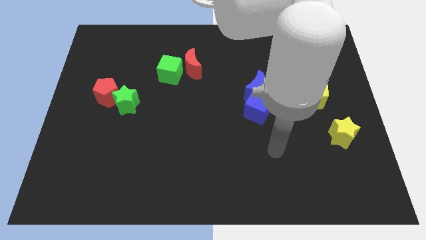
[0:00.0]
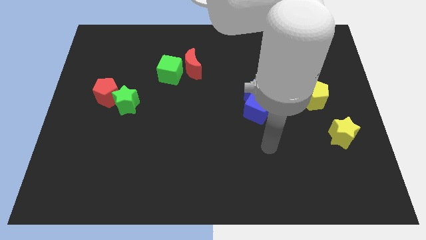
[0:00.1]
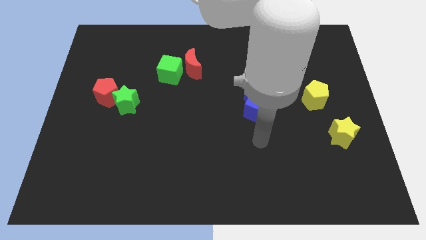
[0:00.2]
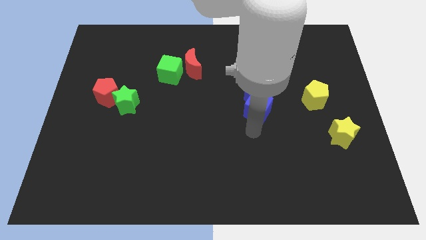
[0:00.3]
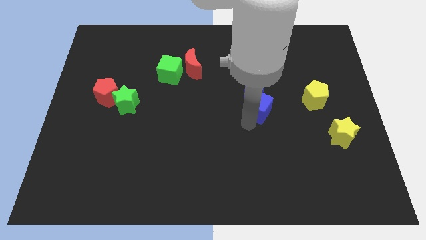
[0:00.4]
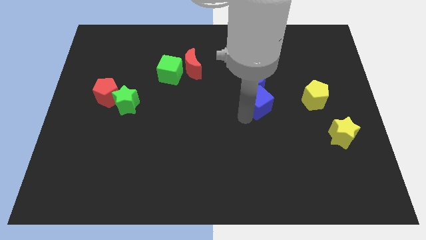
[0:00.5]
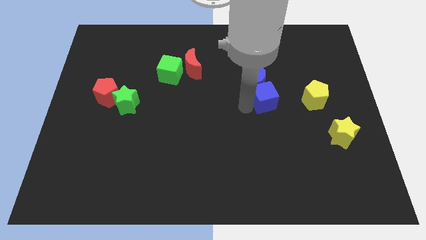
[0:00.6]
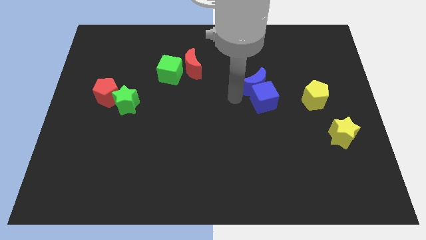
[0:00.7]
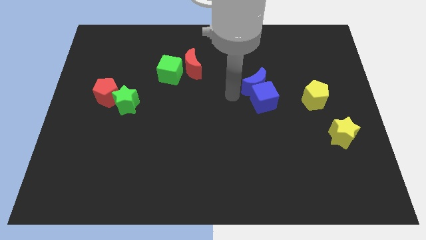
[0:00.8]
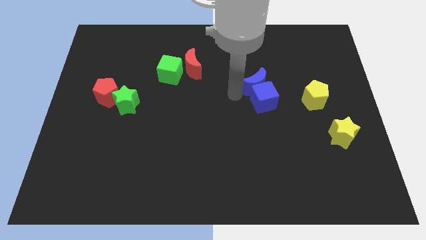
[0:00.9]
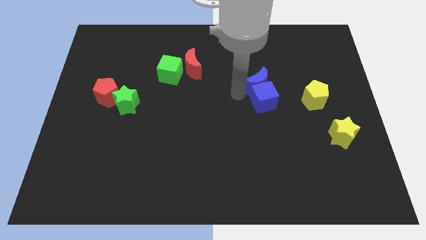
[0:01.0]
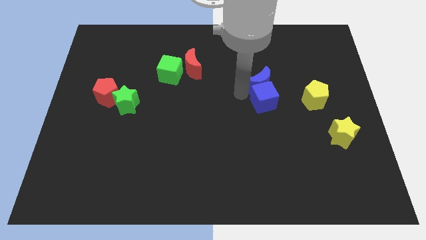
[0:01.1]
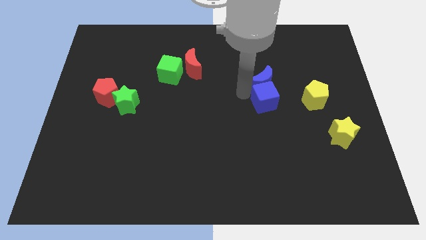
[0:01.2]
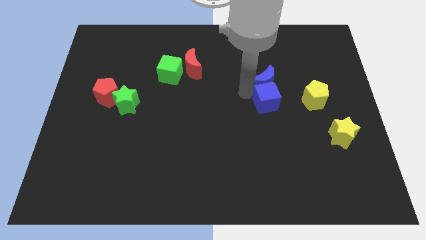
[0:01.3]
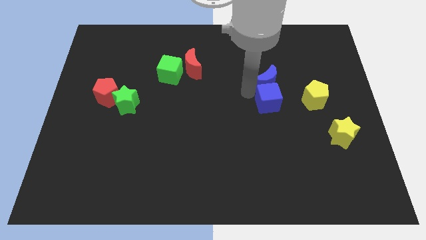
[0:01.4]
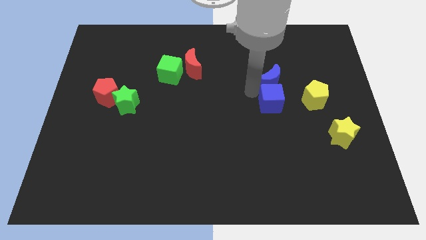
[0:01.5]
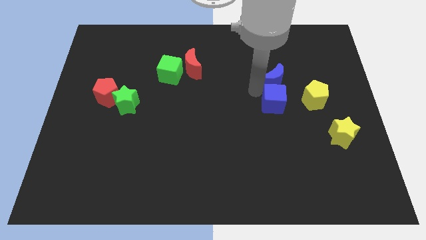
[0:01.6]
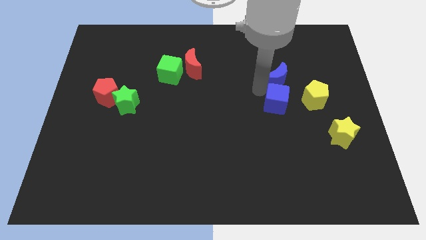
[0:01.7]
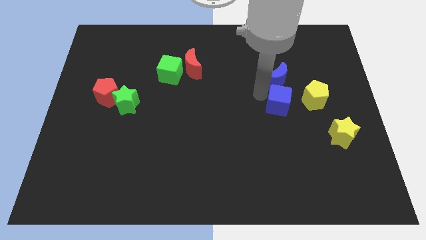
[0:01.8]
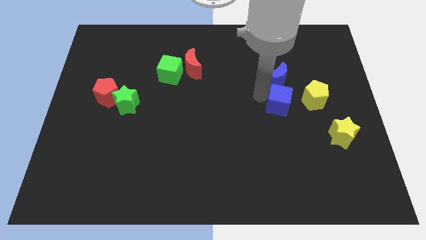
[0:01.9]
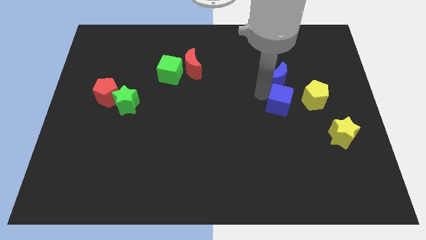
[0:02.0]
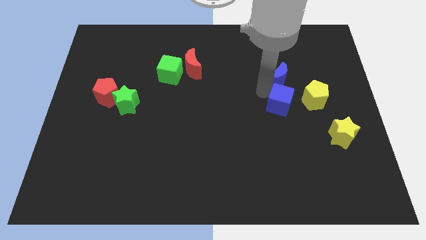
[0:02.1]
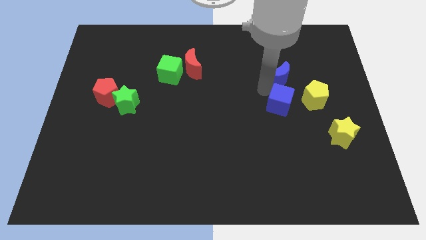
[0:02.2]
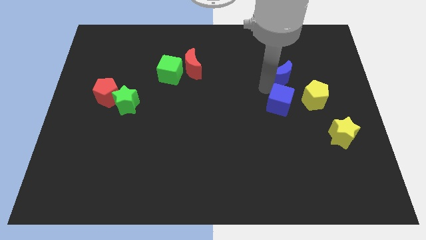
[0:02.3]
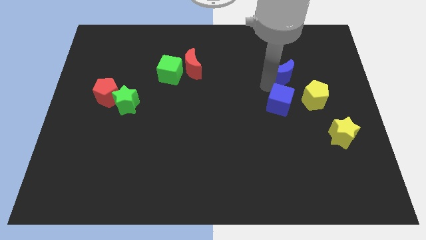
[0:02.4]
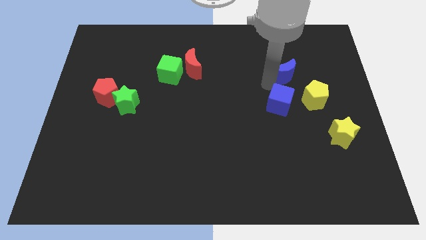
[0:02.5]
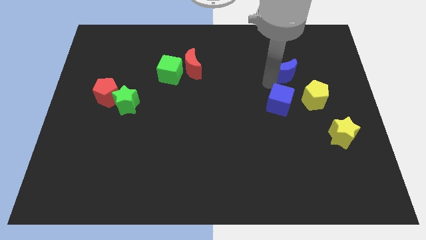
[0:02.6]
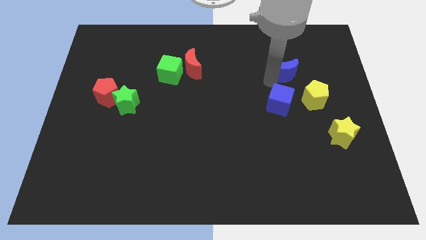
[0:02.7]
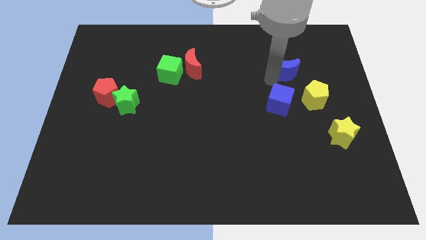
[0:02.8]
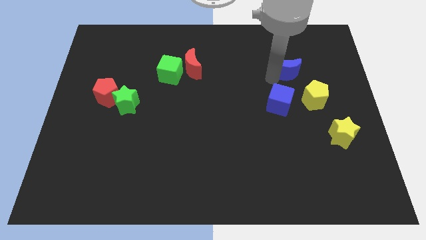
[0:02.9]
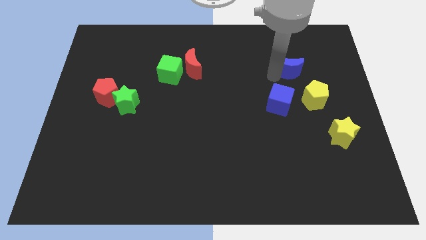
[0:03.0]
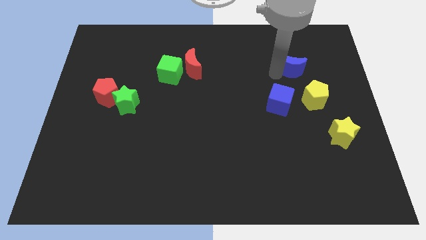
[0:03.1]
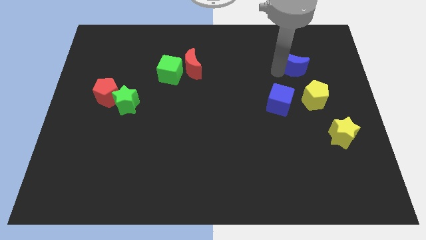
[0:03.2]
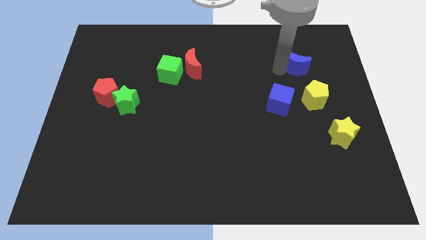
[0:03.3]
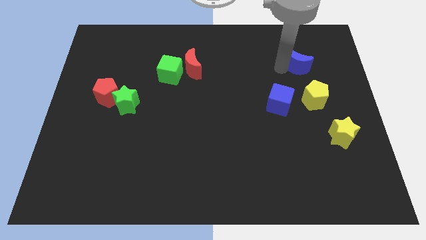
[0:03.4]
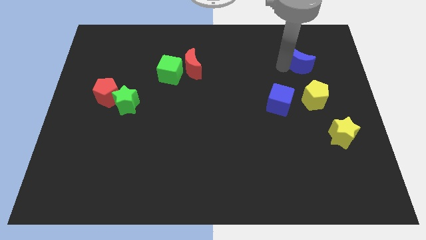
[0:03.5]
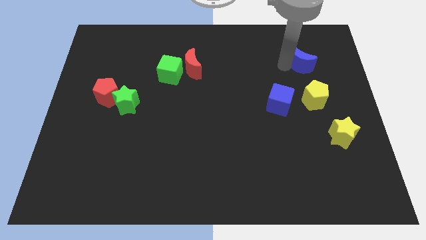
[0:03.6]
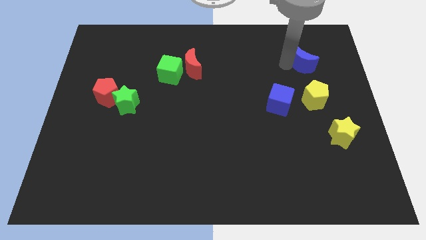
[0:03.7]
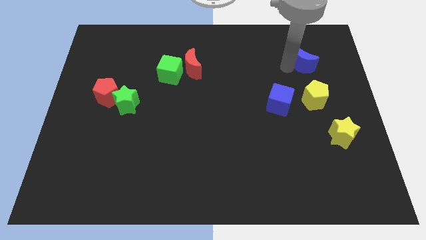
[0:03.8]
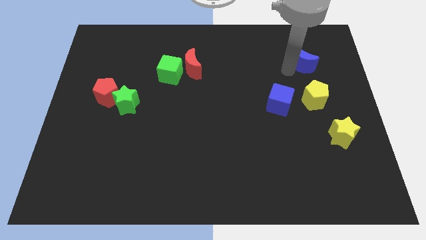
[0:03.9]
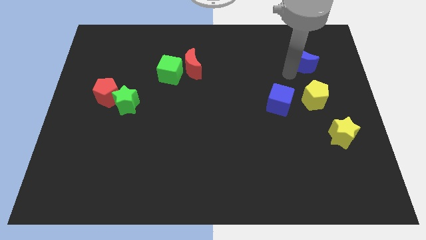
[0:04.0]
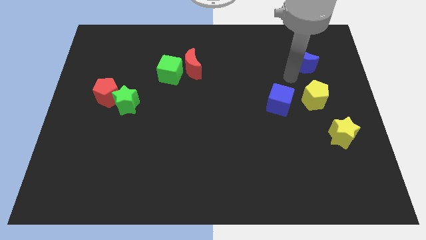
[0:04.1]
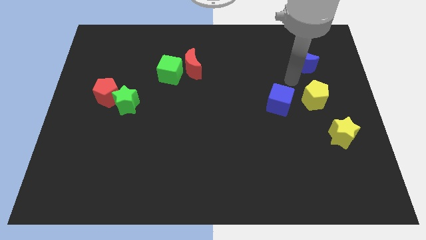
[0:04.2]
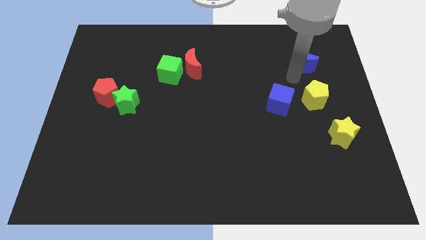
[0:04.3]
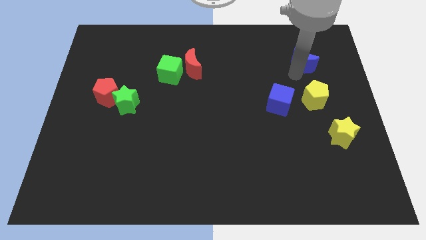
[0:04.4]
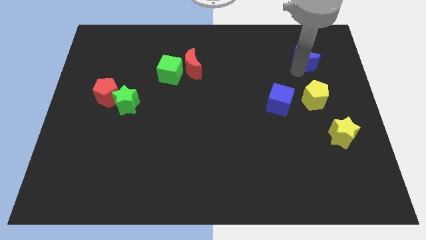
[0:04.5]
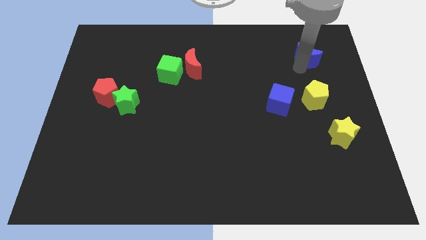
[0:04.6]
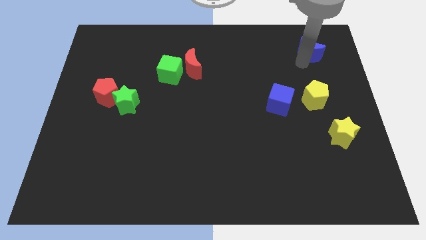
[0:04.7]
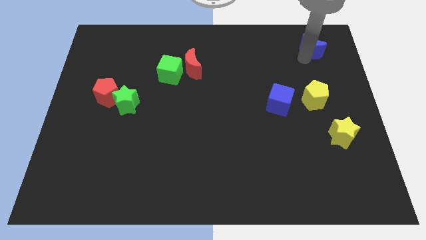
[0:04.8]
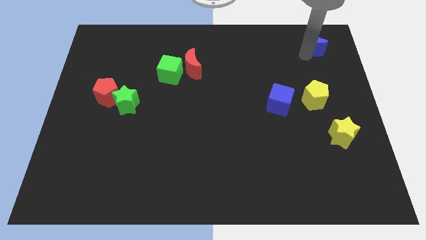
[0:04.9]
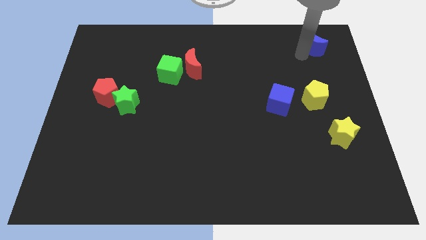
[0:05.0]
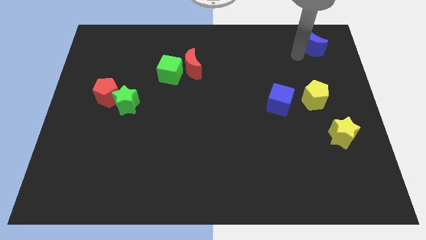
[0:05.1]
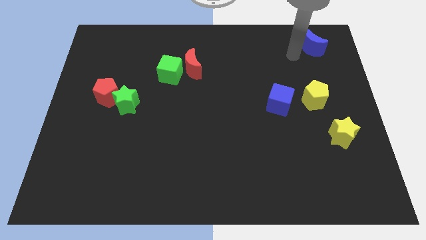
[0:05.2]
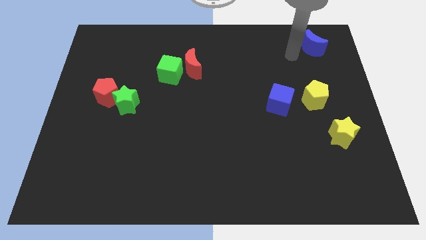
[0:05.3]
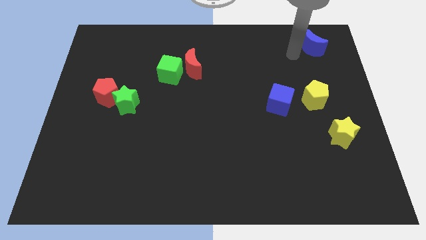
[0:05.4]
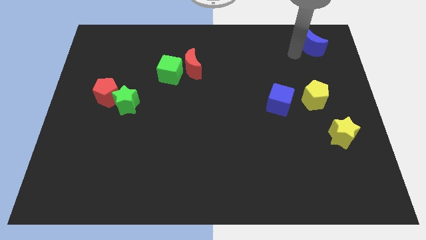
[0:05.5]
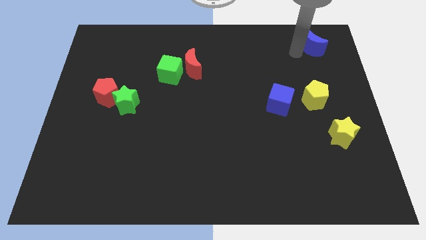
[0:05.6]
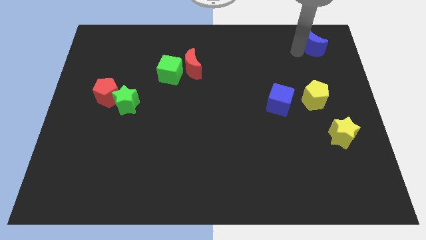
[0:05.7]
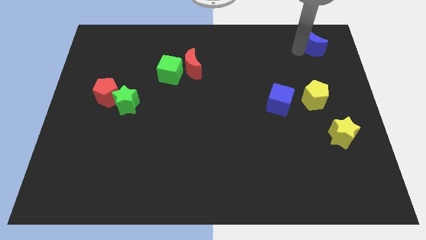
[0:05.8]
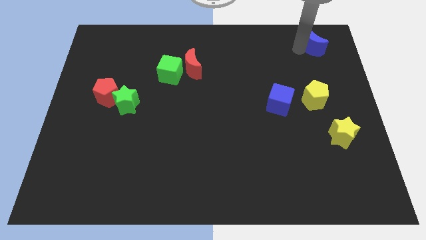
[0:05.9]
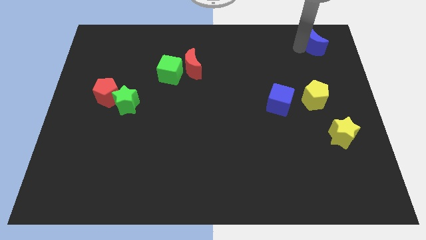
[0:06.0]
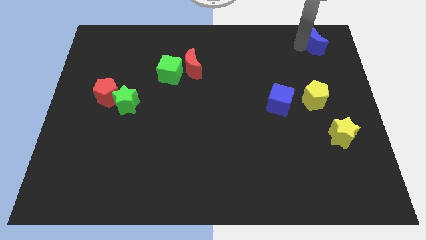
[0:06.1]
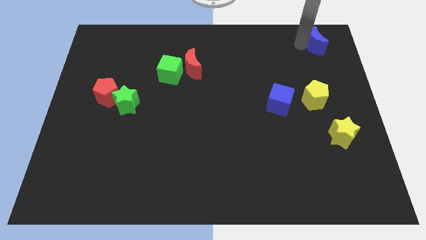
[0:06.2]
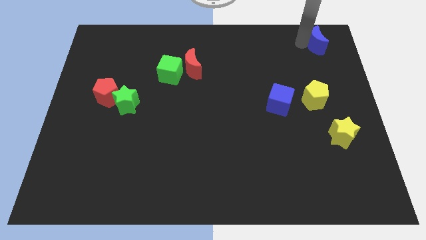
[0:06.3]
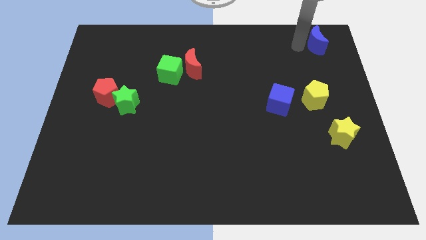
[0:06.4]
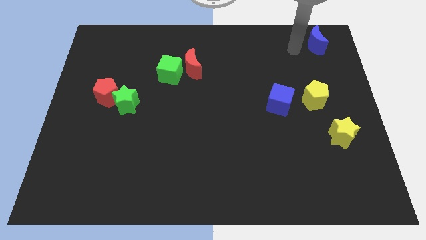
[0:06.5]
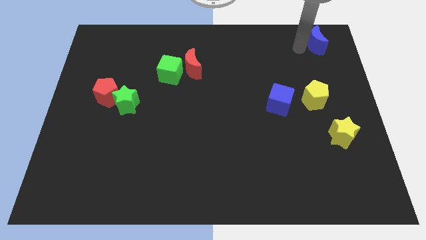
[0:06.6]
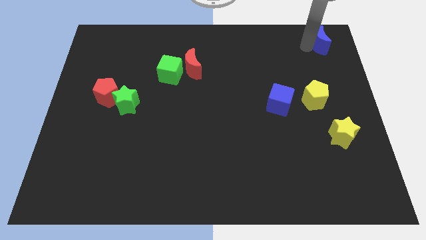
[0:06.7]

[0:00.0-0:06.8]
push the blue moon to the top right of the board
